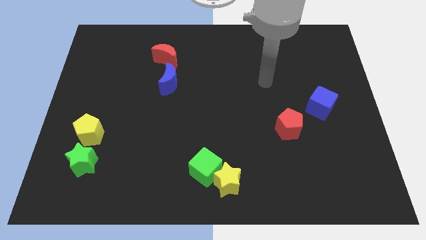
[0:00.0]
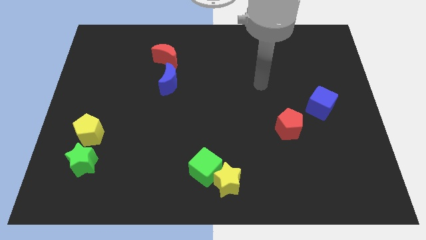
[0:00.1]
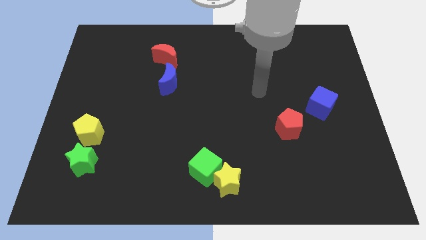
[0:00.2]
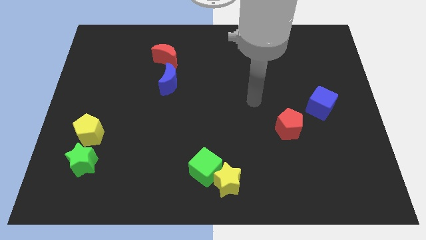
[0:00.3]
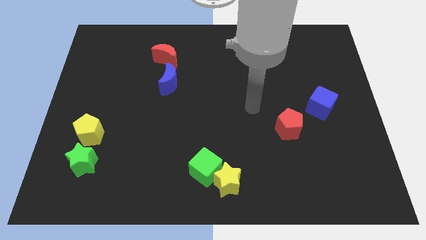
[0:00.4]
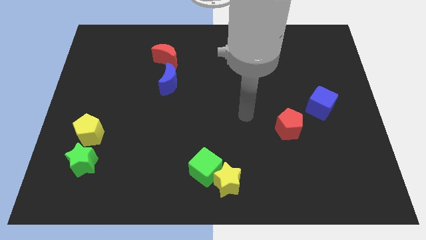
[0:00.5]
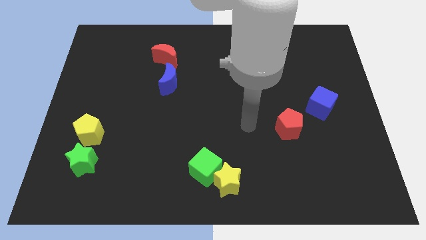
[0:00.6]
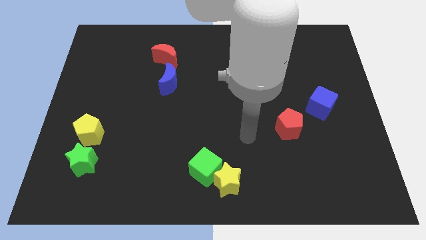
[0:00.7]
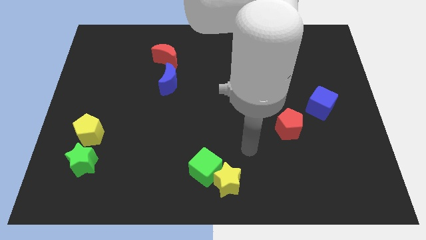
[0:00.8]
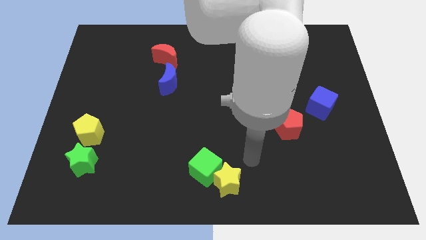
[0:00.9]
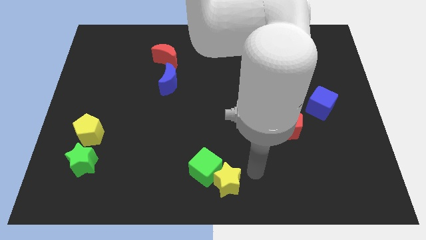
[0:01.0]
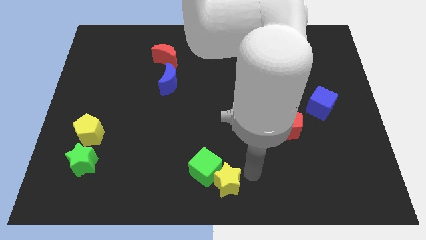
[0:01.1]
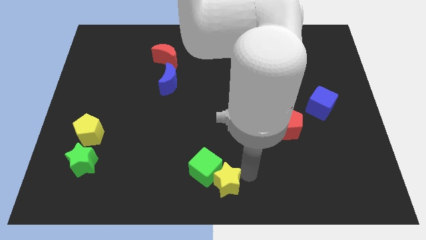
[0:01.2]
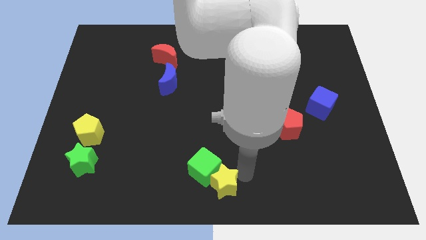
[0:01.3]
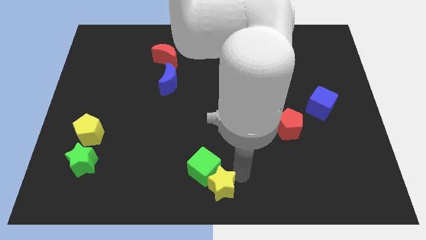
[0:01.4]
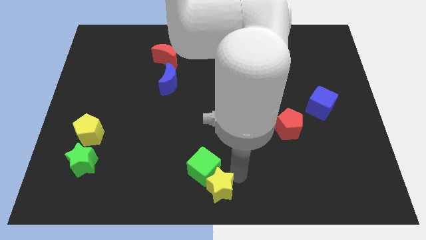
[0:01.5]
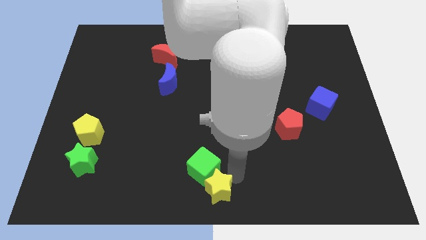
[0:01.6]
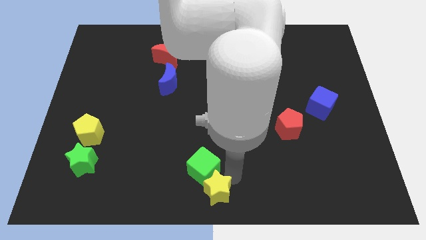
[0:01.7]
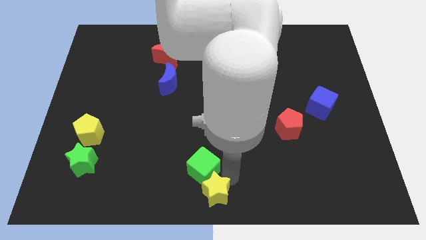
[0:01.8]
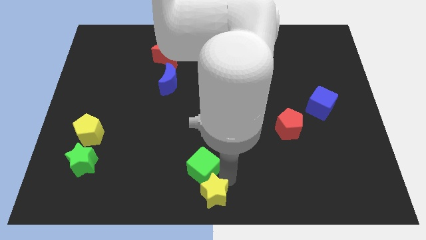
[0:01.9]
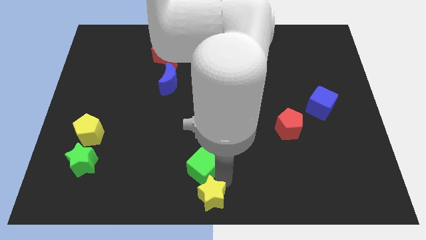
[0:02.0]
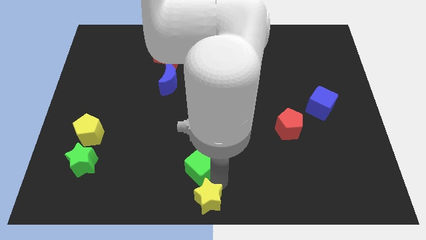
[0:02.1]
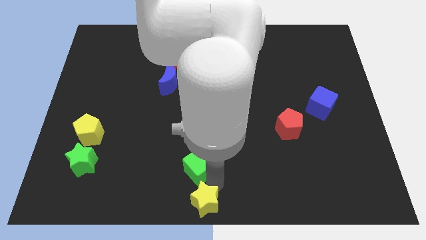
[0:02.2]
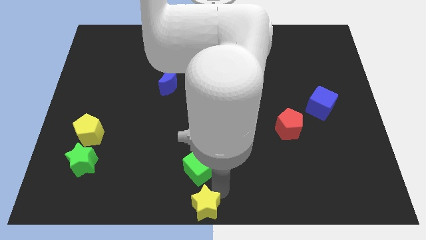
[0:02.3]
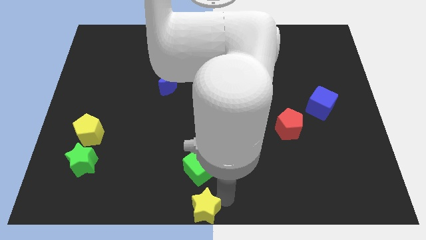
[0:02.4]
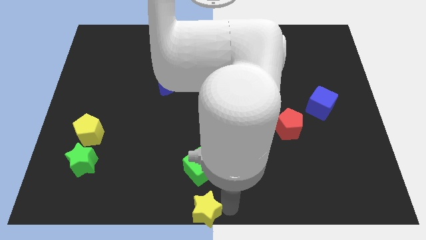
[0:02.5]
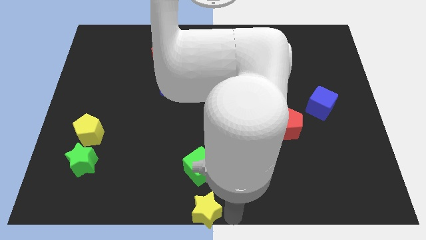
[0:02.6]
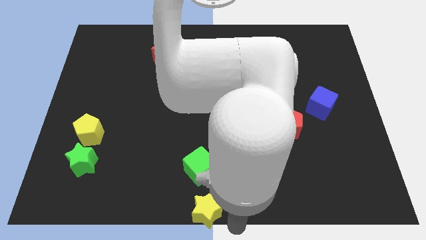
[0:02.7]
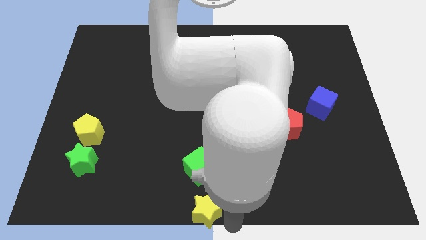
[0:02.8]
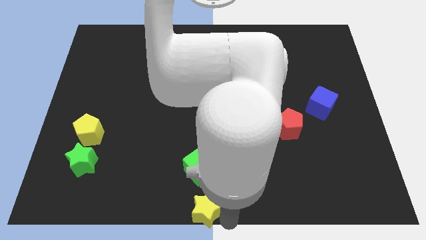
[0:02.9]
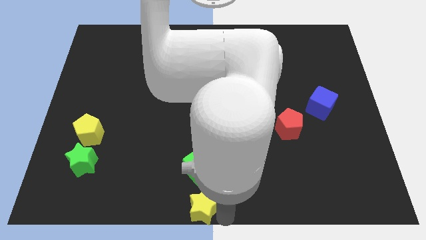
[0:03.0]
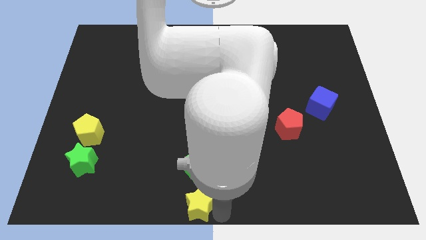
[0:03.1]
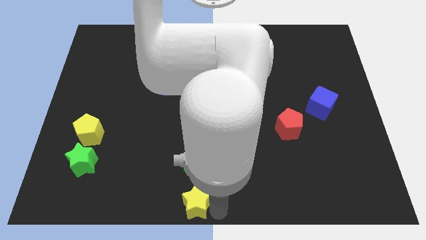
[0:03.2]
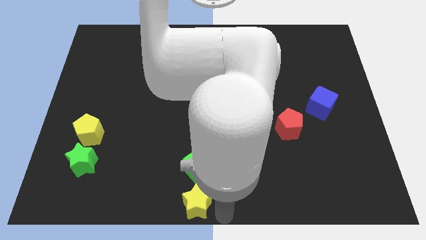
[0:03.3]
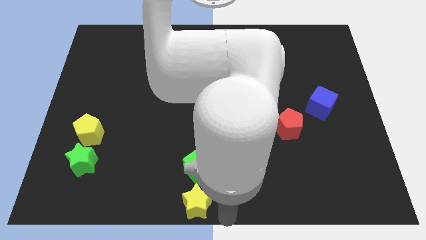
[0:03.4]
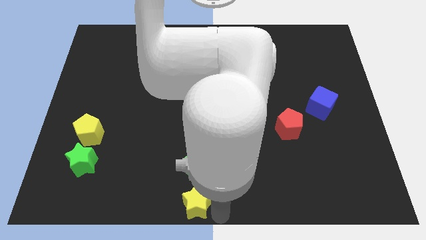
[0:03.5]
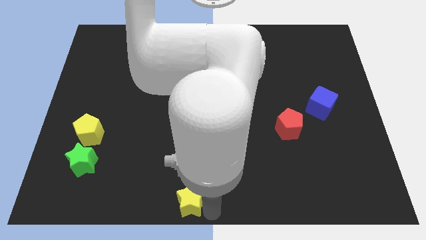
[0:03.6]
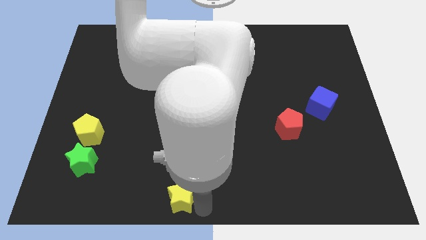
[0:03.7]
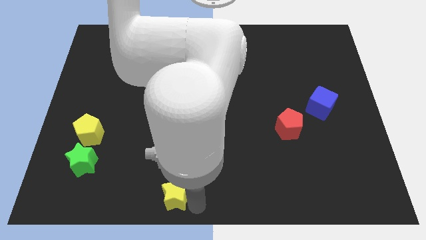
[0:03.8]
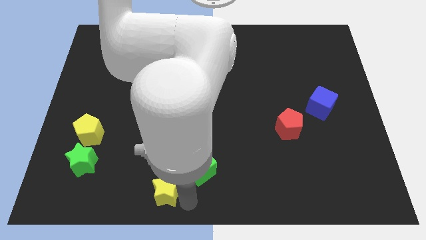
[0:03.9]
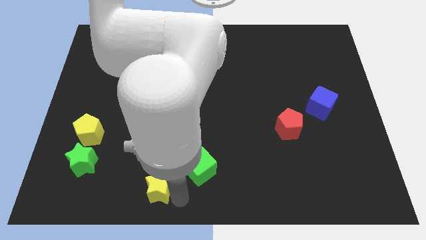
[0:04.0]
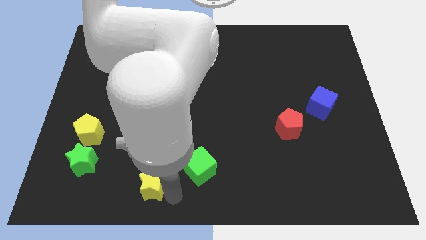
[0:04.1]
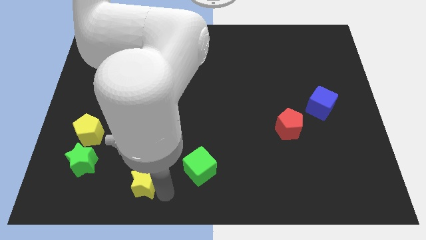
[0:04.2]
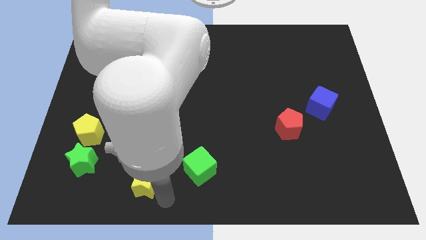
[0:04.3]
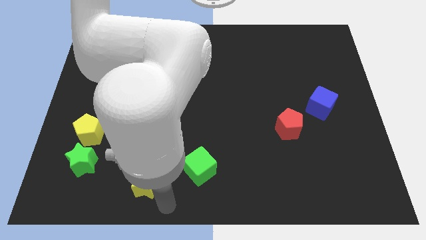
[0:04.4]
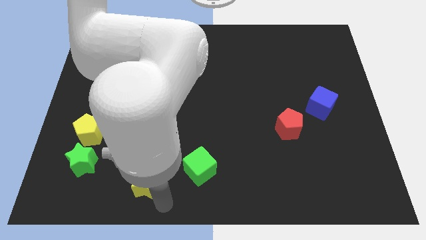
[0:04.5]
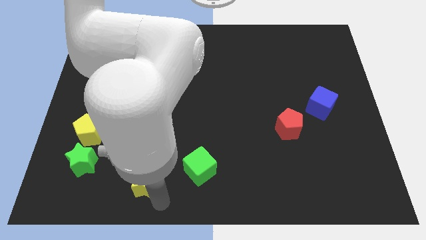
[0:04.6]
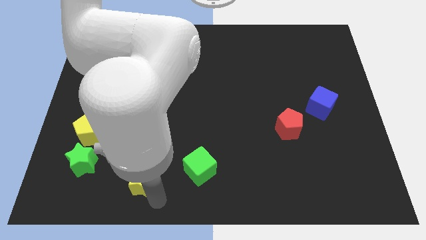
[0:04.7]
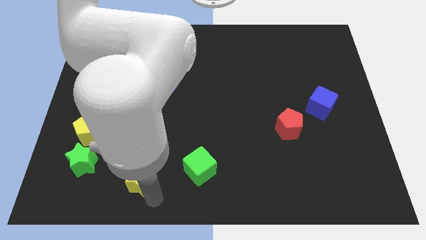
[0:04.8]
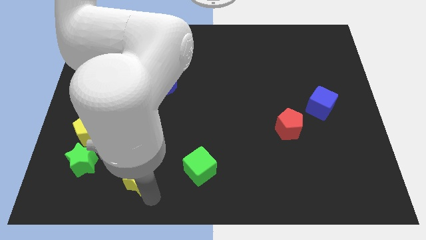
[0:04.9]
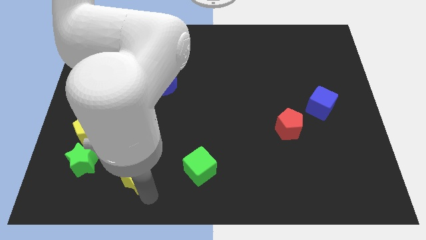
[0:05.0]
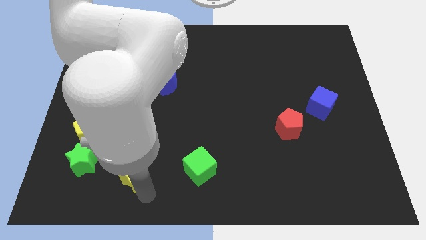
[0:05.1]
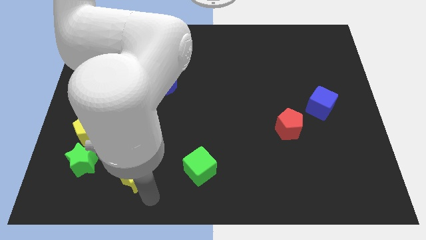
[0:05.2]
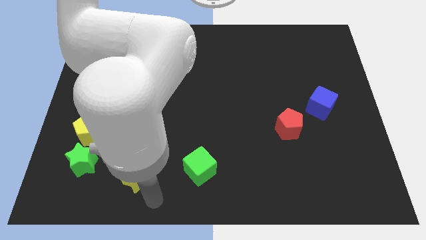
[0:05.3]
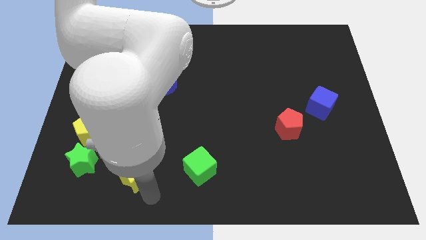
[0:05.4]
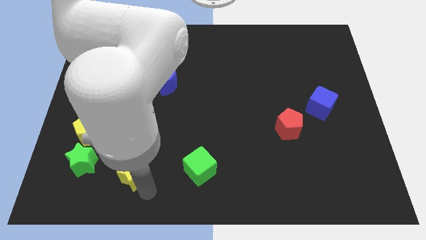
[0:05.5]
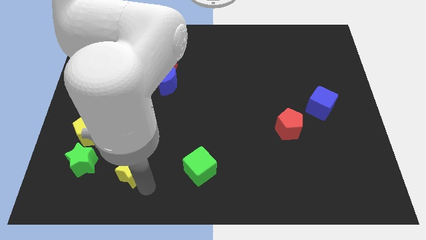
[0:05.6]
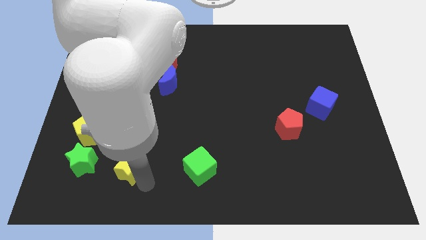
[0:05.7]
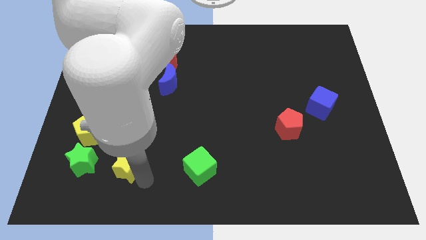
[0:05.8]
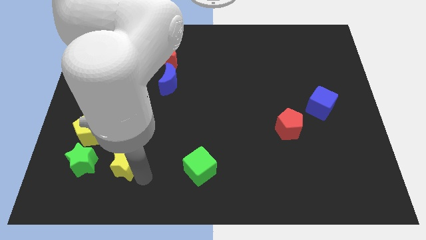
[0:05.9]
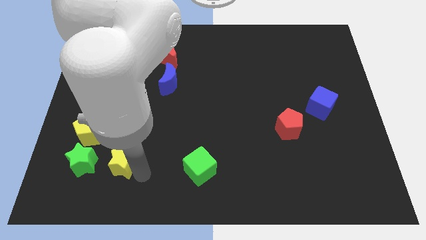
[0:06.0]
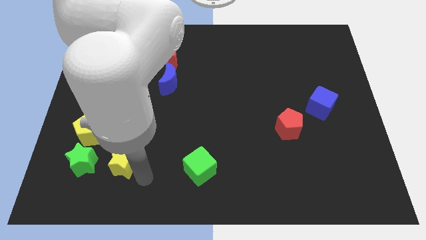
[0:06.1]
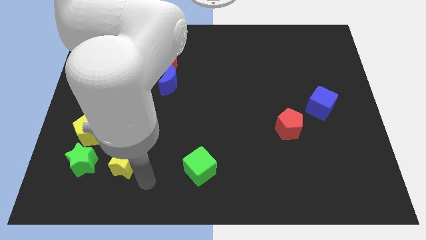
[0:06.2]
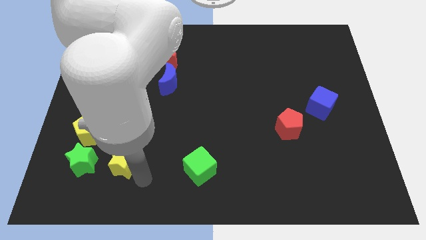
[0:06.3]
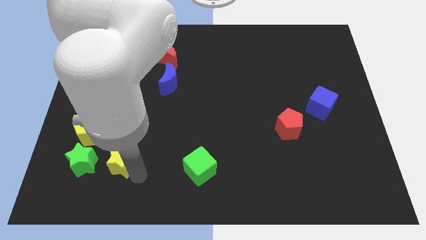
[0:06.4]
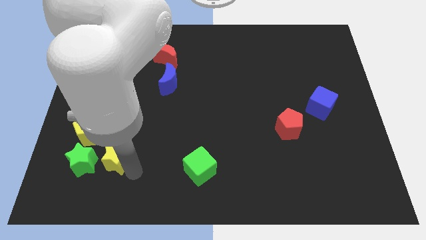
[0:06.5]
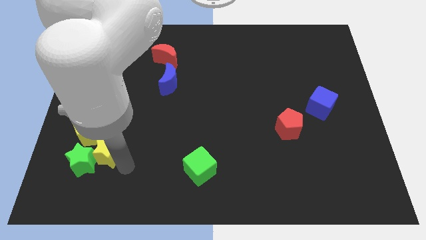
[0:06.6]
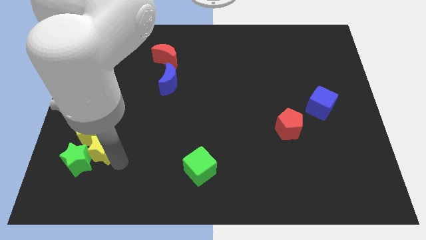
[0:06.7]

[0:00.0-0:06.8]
slide the yellow star to the yellow pentagon
